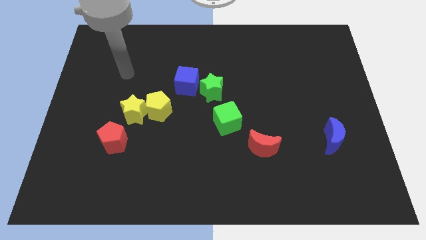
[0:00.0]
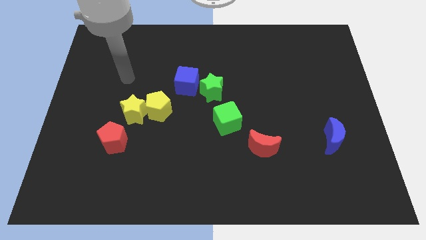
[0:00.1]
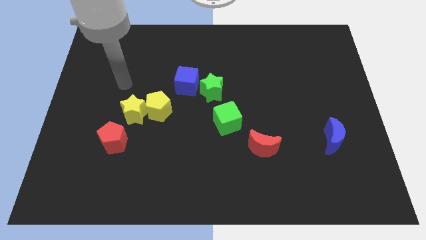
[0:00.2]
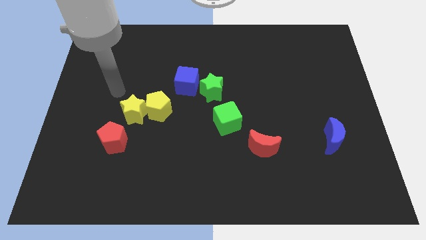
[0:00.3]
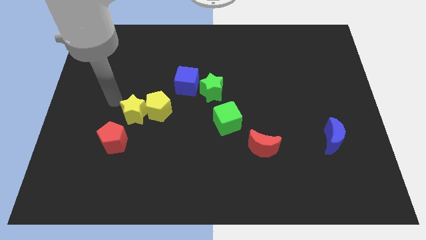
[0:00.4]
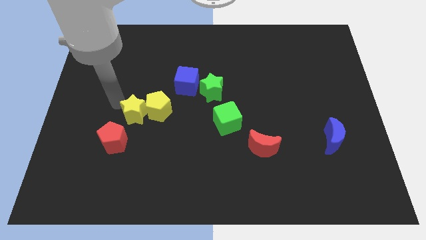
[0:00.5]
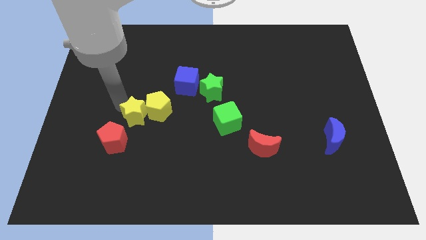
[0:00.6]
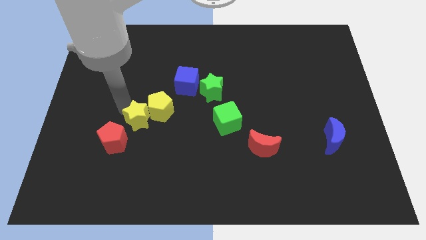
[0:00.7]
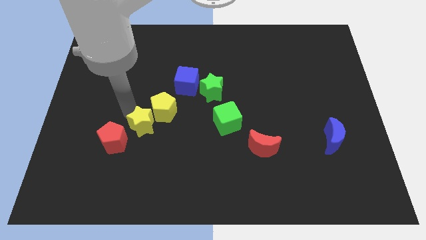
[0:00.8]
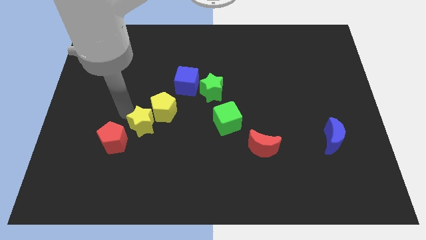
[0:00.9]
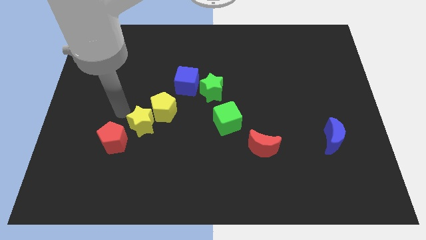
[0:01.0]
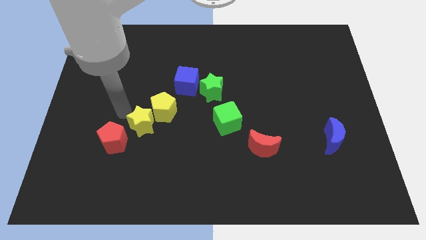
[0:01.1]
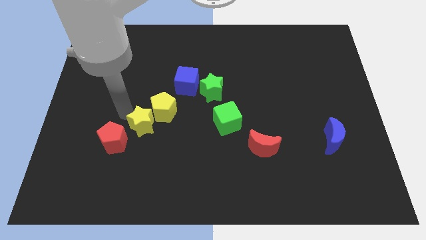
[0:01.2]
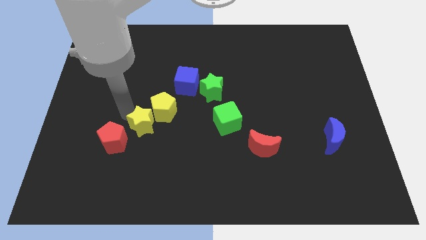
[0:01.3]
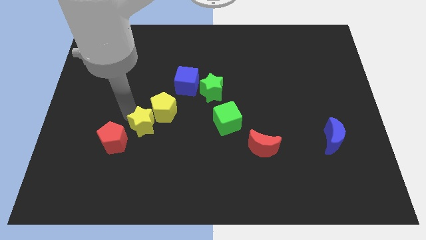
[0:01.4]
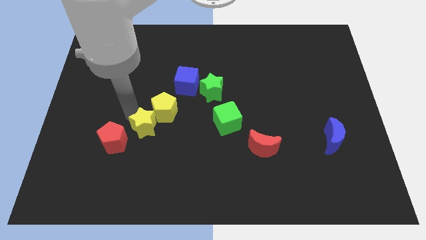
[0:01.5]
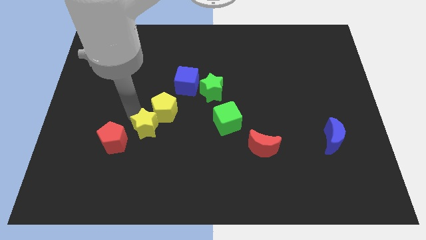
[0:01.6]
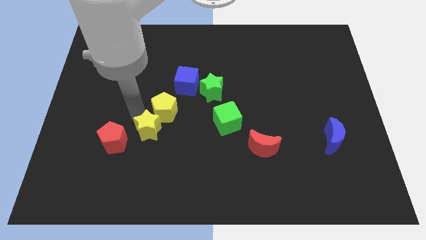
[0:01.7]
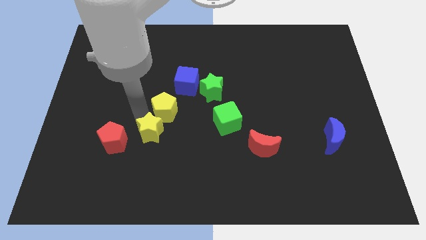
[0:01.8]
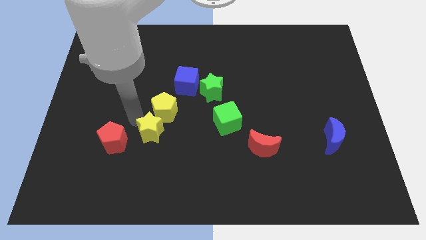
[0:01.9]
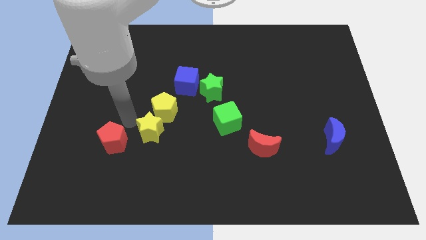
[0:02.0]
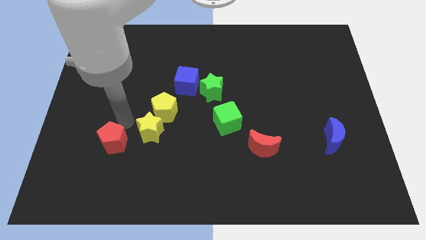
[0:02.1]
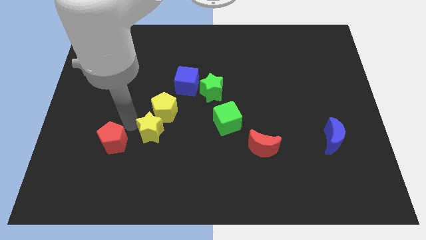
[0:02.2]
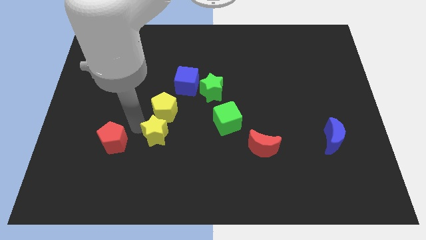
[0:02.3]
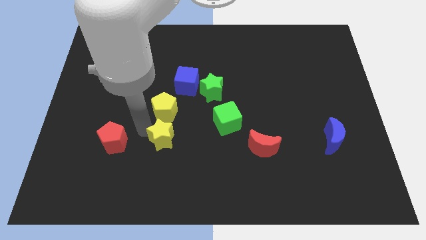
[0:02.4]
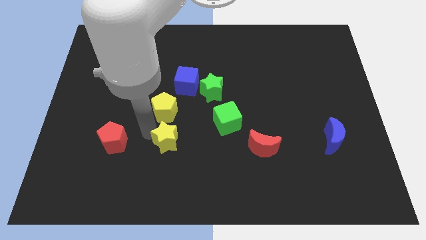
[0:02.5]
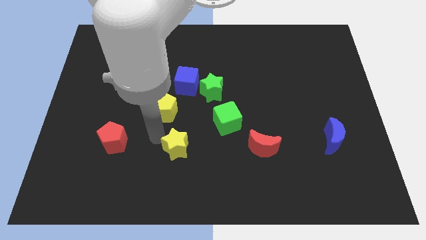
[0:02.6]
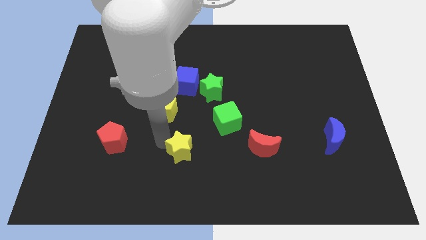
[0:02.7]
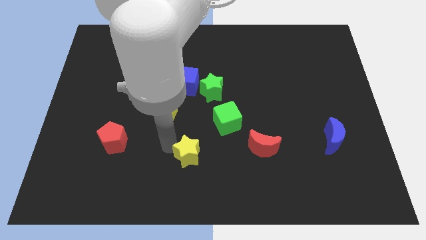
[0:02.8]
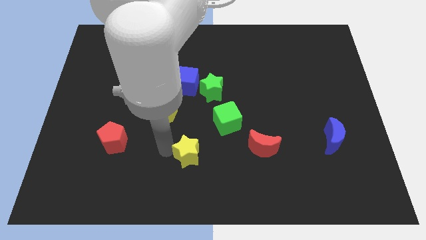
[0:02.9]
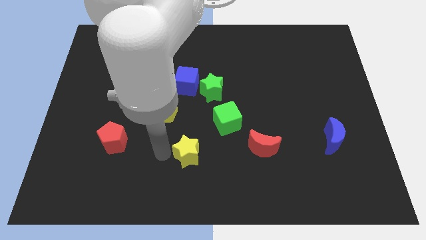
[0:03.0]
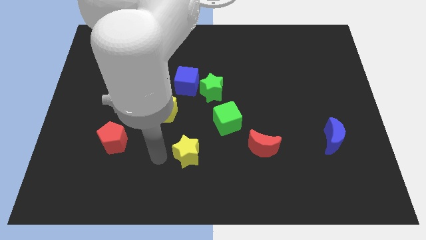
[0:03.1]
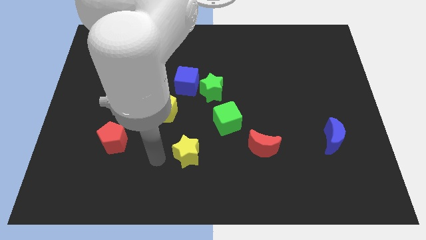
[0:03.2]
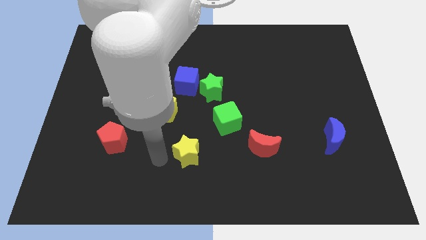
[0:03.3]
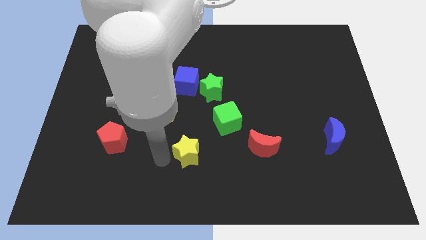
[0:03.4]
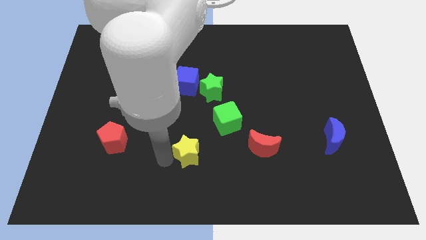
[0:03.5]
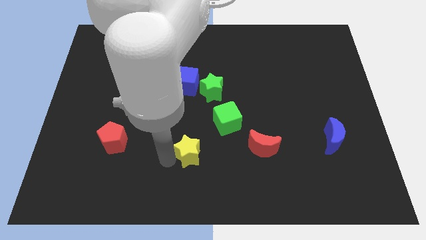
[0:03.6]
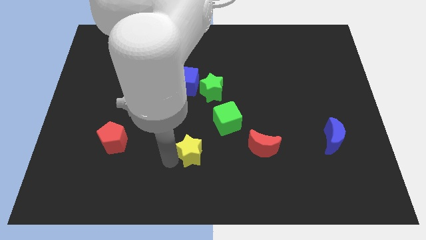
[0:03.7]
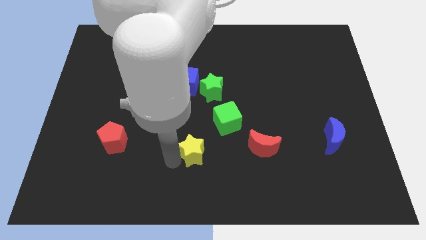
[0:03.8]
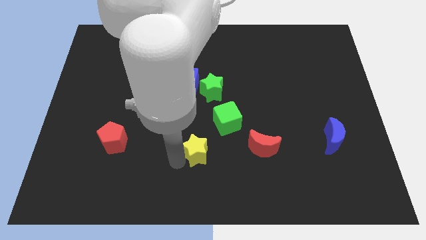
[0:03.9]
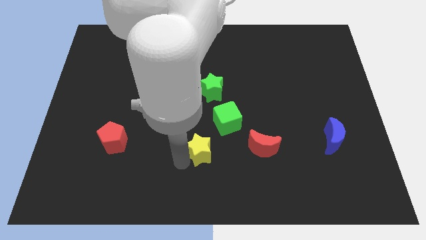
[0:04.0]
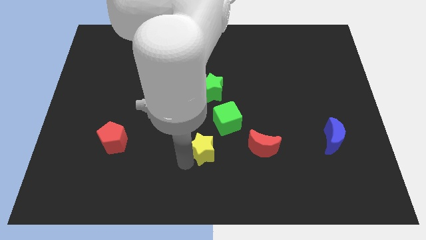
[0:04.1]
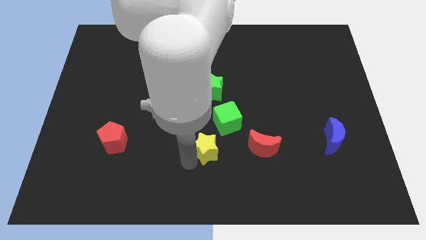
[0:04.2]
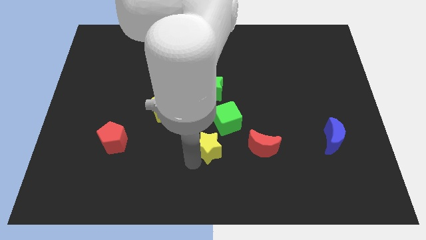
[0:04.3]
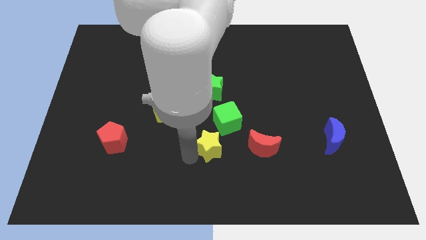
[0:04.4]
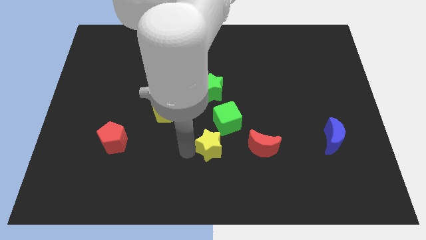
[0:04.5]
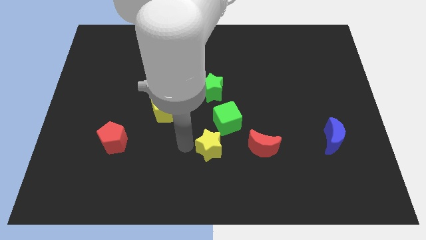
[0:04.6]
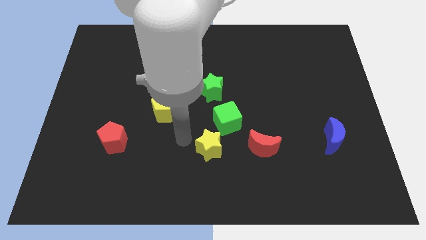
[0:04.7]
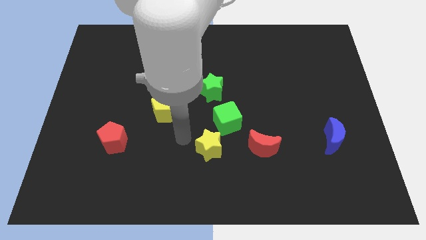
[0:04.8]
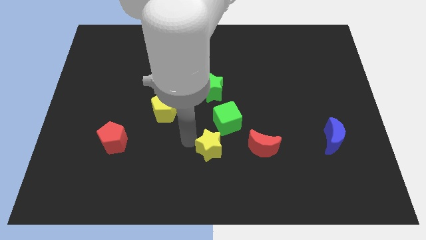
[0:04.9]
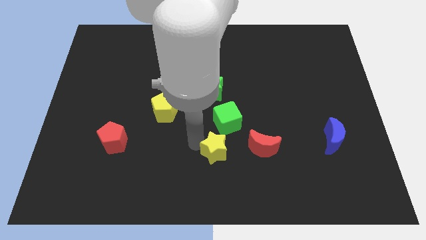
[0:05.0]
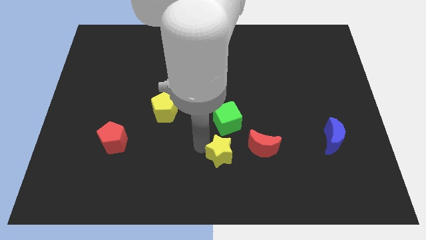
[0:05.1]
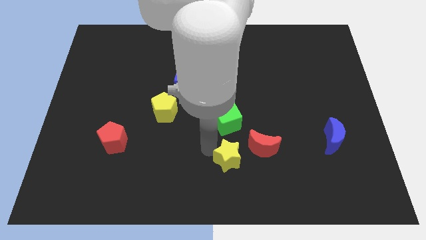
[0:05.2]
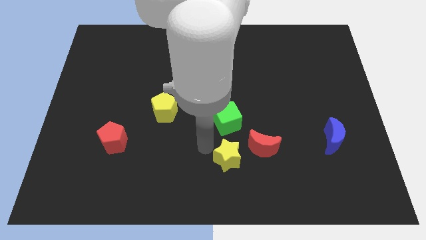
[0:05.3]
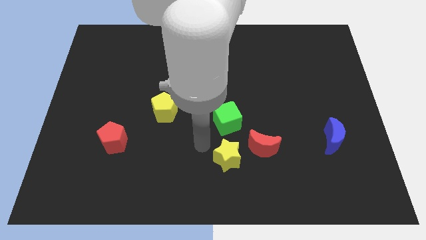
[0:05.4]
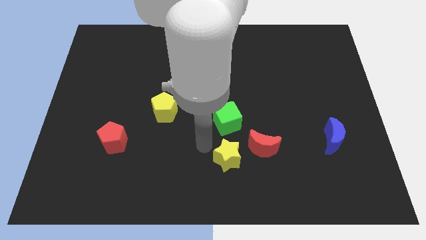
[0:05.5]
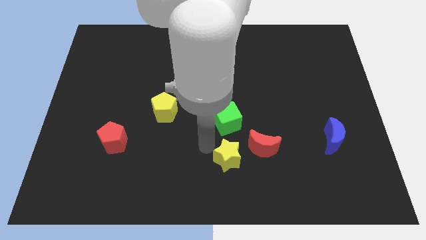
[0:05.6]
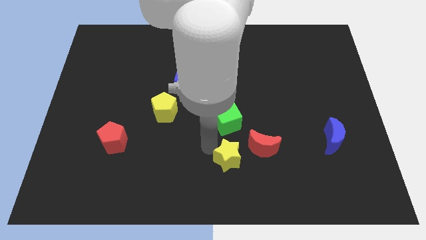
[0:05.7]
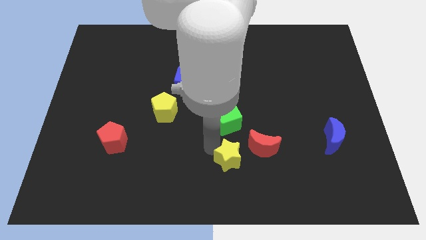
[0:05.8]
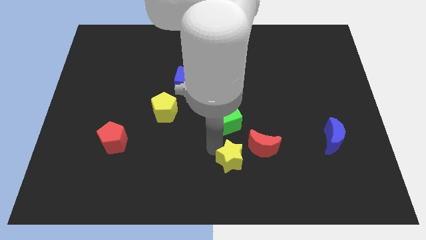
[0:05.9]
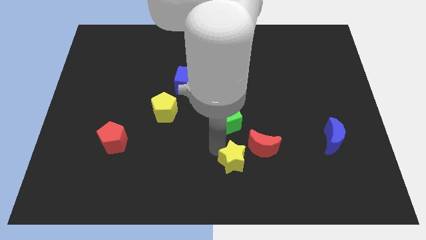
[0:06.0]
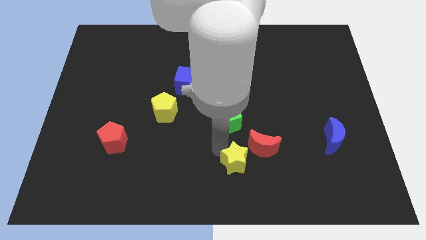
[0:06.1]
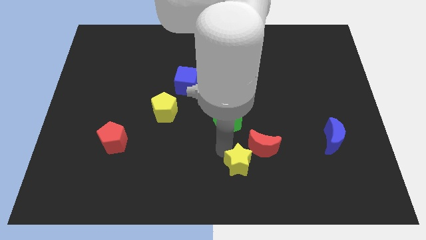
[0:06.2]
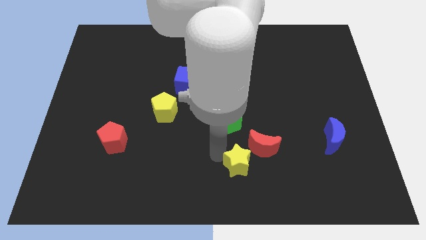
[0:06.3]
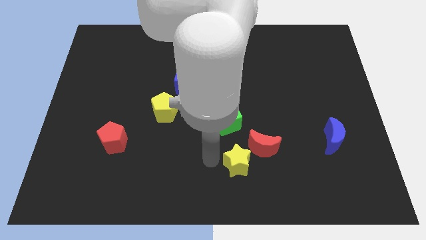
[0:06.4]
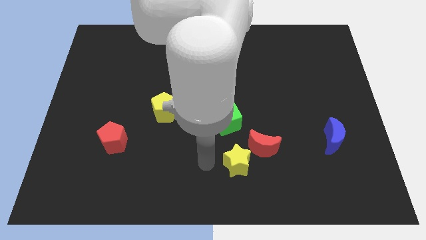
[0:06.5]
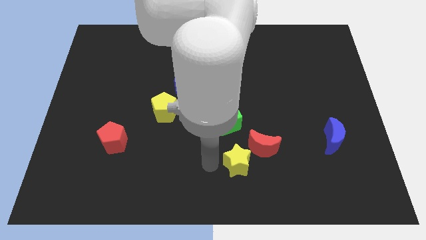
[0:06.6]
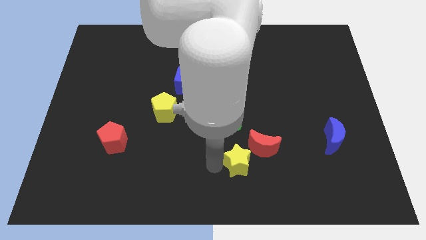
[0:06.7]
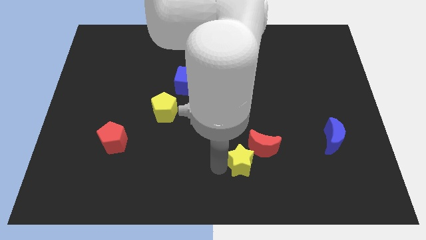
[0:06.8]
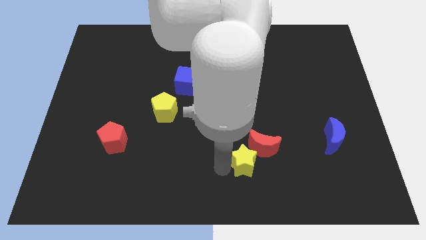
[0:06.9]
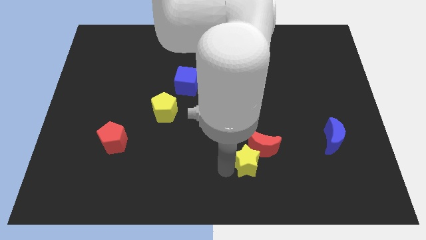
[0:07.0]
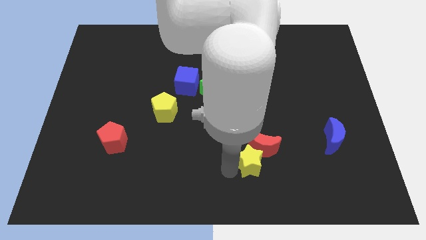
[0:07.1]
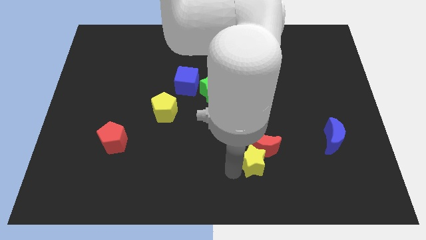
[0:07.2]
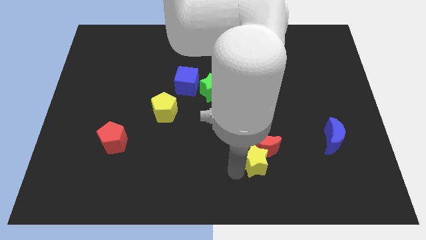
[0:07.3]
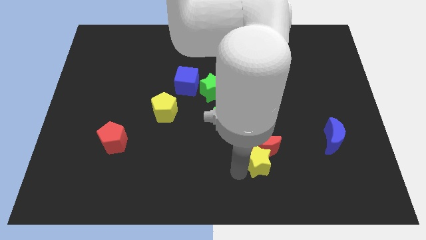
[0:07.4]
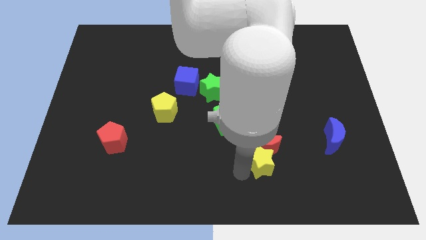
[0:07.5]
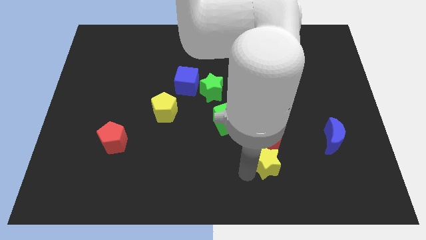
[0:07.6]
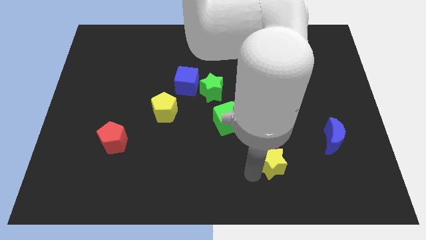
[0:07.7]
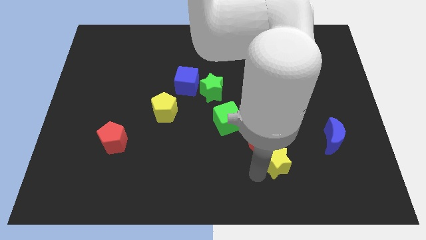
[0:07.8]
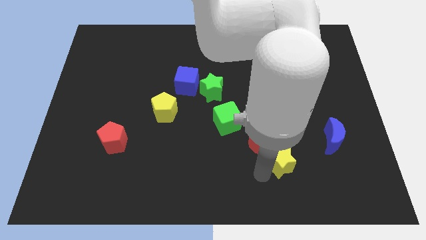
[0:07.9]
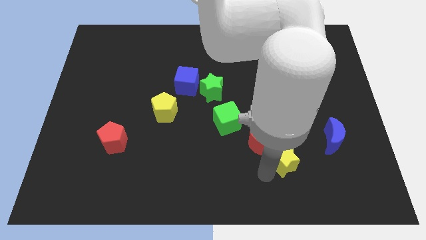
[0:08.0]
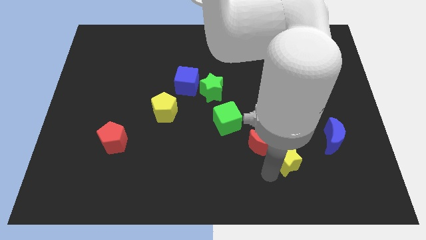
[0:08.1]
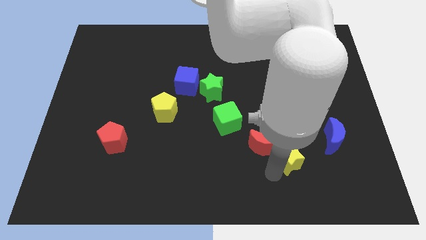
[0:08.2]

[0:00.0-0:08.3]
slide the yellow star diagonally down and to the left of the blue moon
